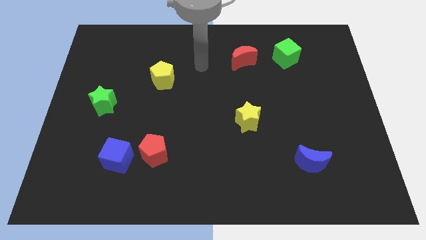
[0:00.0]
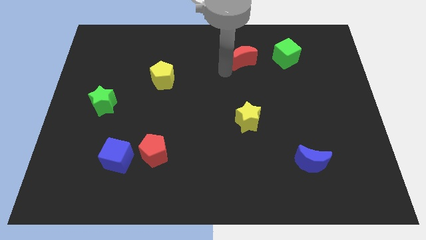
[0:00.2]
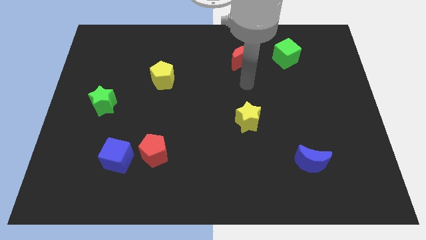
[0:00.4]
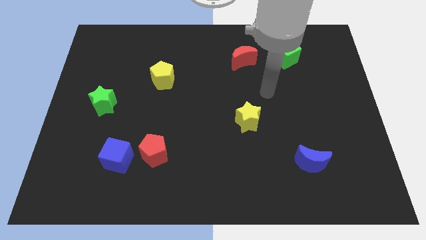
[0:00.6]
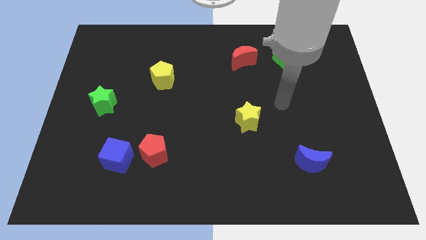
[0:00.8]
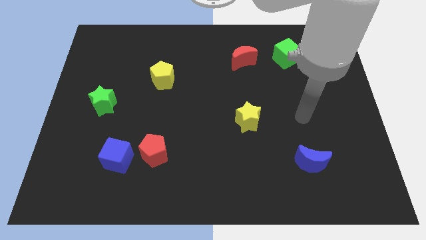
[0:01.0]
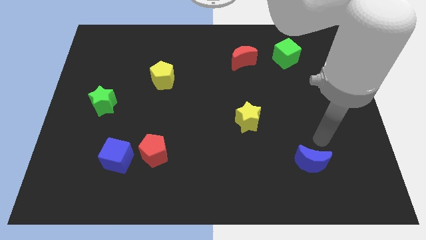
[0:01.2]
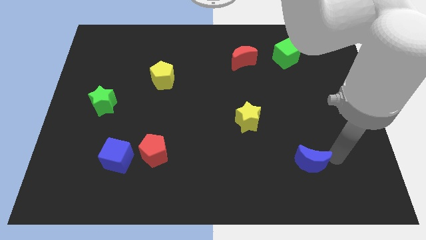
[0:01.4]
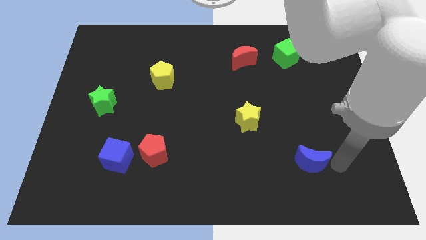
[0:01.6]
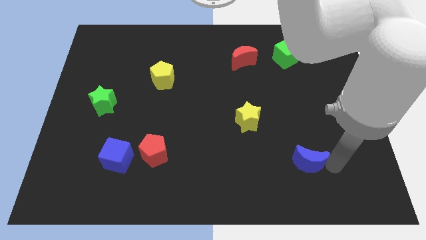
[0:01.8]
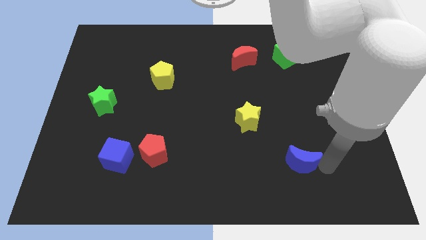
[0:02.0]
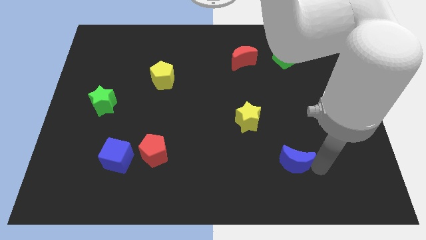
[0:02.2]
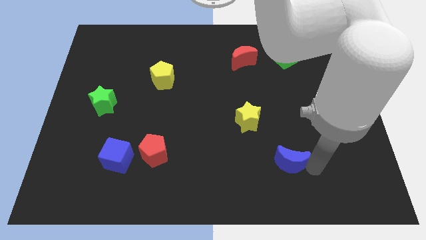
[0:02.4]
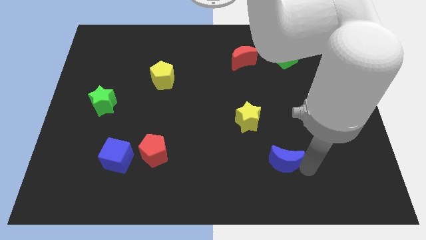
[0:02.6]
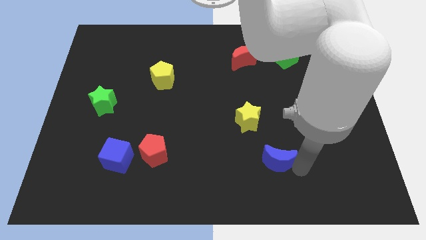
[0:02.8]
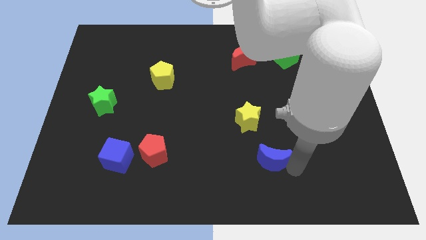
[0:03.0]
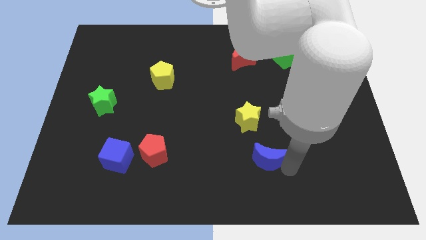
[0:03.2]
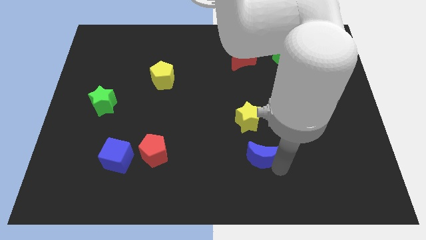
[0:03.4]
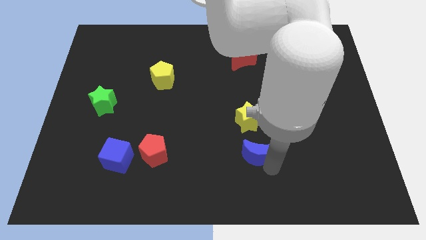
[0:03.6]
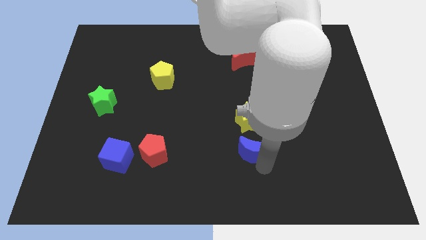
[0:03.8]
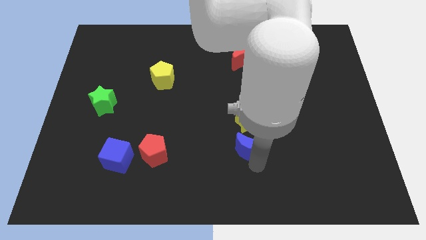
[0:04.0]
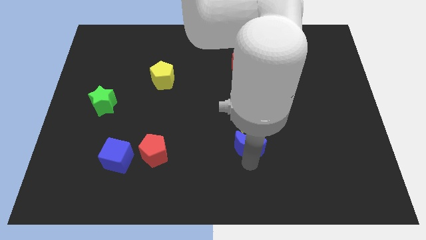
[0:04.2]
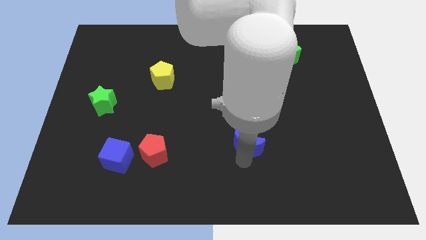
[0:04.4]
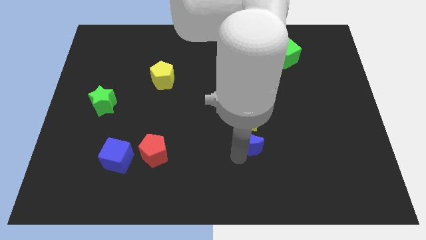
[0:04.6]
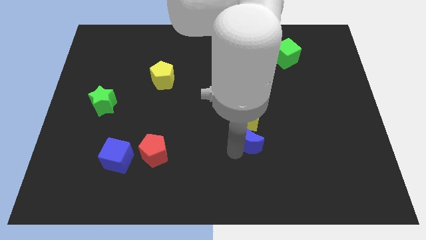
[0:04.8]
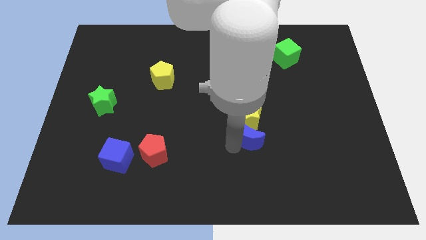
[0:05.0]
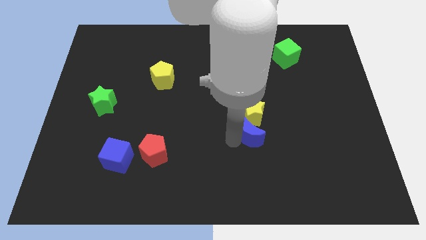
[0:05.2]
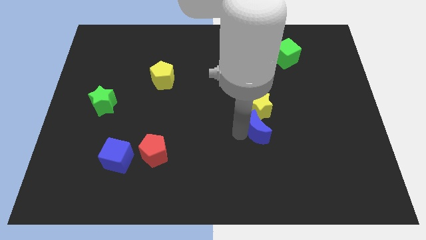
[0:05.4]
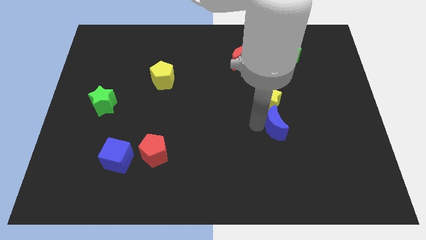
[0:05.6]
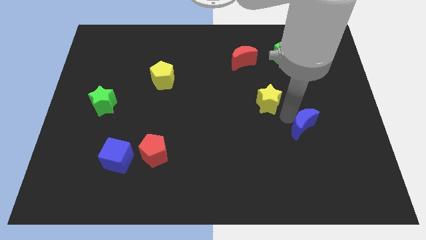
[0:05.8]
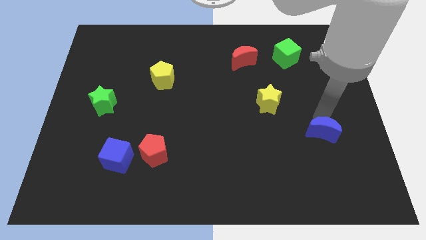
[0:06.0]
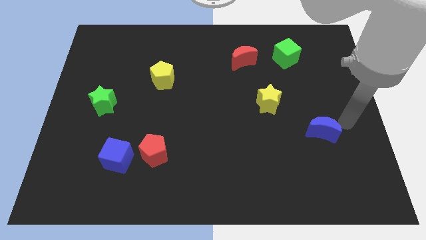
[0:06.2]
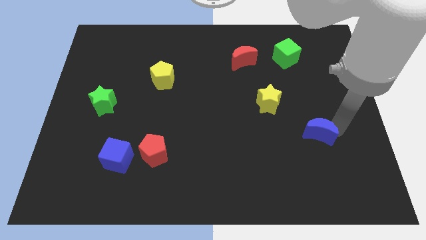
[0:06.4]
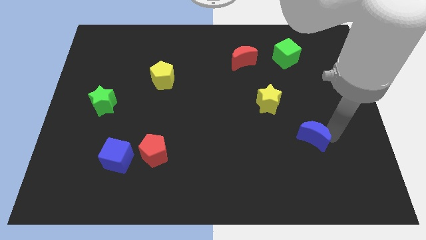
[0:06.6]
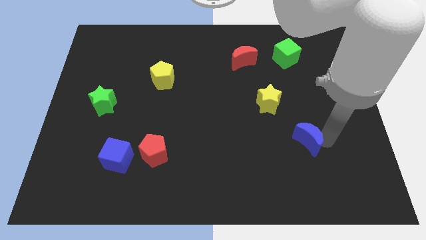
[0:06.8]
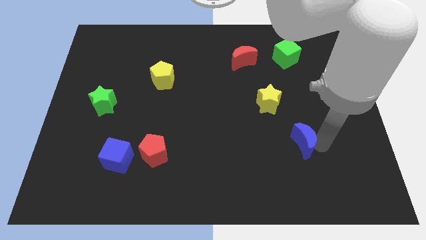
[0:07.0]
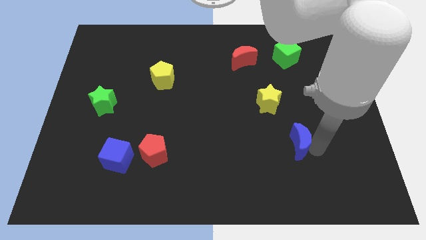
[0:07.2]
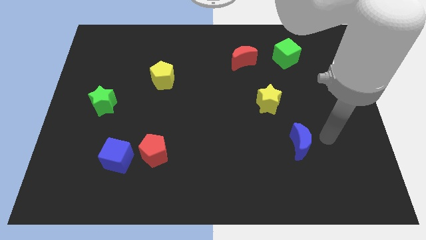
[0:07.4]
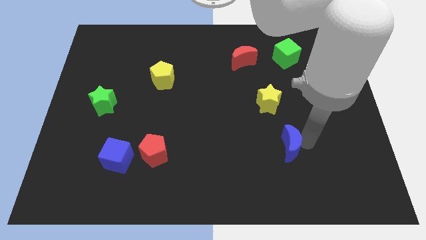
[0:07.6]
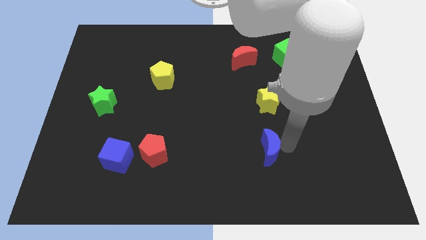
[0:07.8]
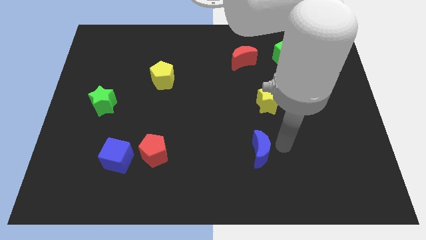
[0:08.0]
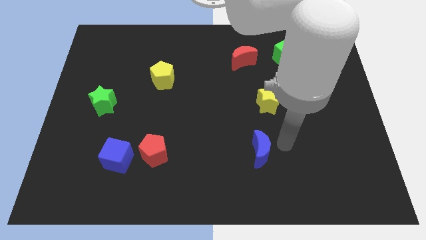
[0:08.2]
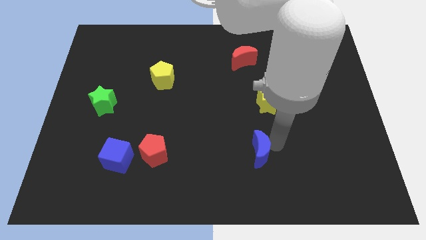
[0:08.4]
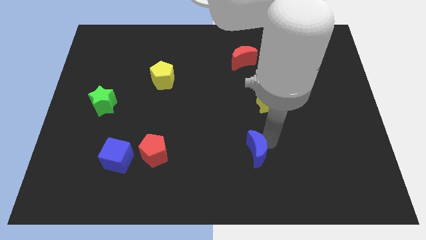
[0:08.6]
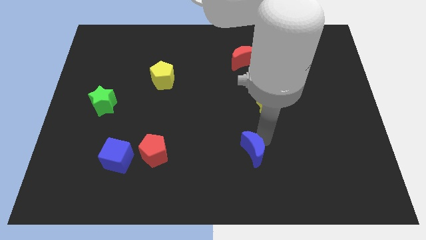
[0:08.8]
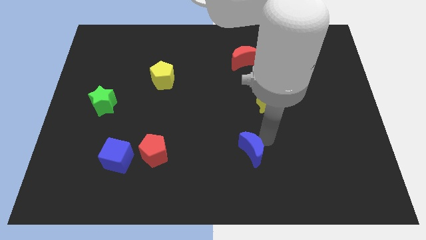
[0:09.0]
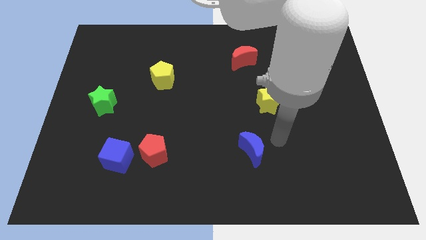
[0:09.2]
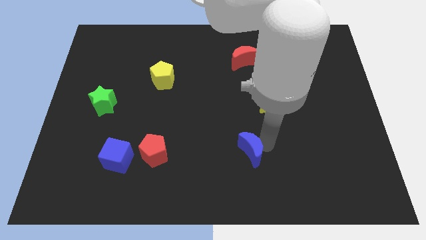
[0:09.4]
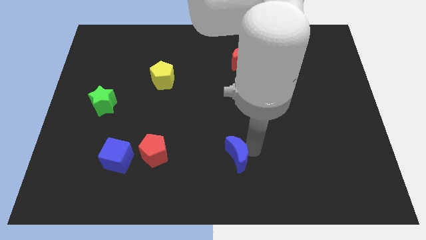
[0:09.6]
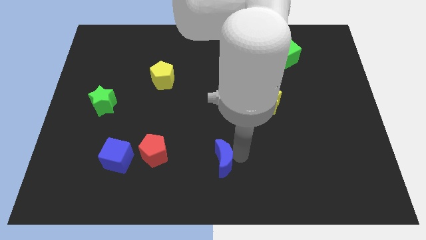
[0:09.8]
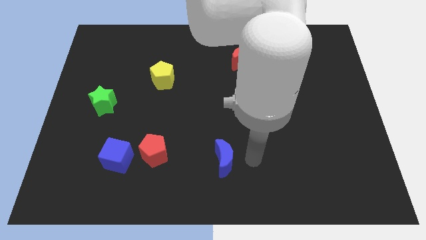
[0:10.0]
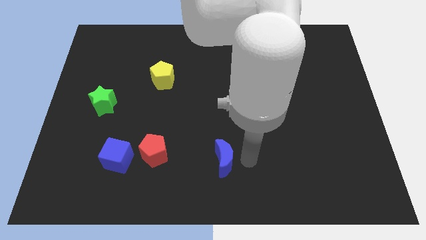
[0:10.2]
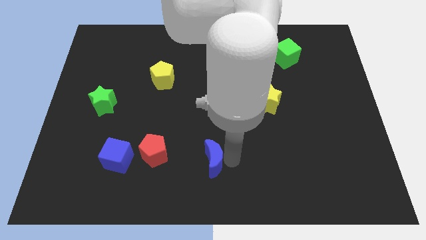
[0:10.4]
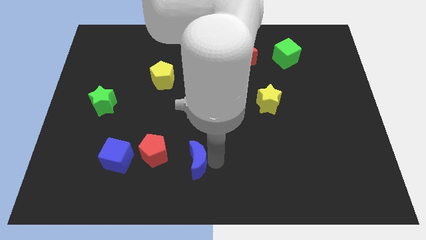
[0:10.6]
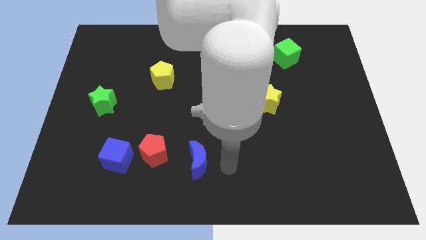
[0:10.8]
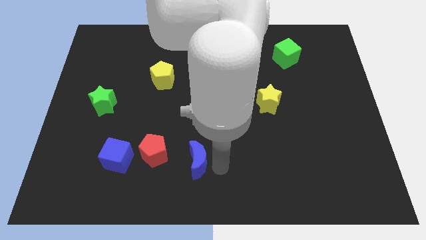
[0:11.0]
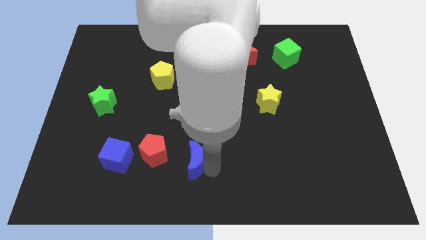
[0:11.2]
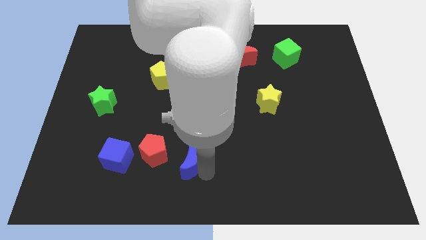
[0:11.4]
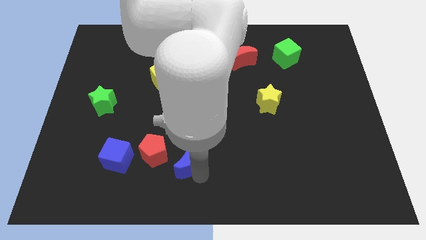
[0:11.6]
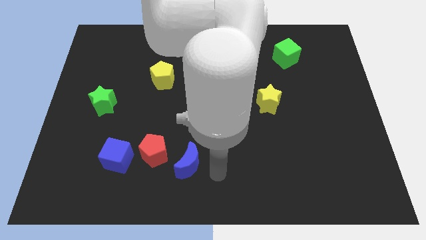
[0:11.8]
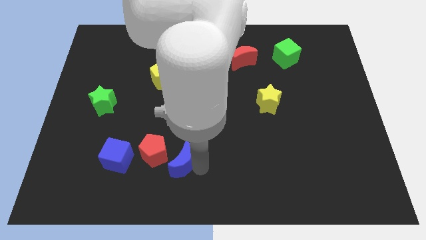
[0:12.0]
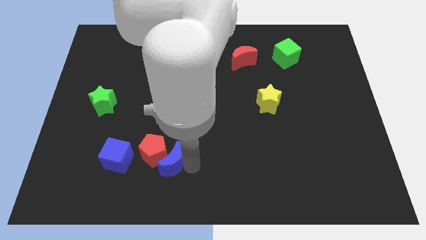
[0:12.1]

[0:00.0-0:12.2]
move the blue moon next to the red pentagon

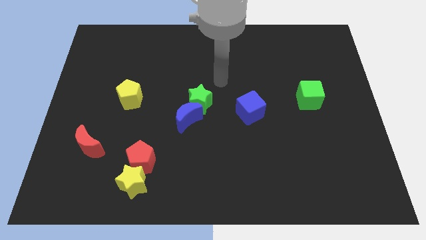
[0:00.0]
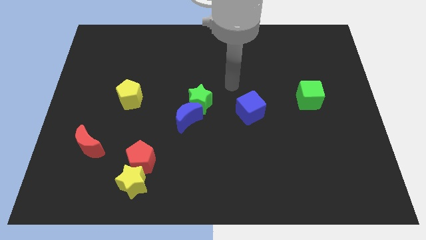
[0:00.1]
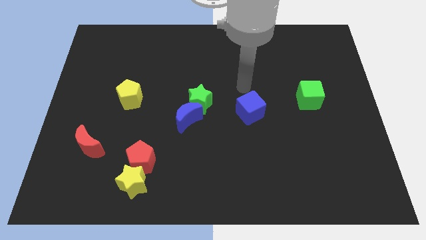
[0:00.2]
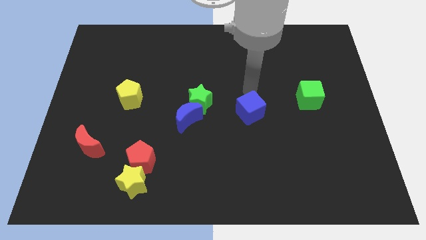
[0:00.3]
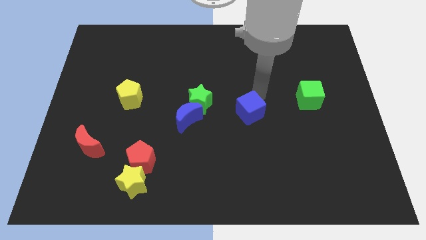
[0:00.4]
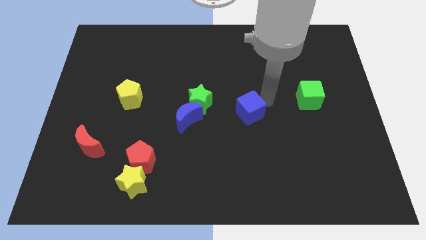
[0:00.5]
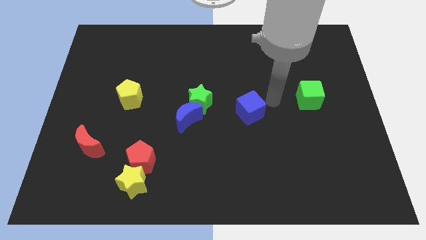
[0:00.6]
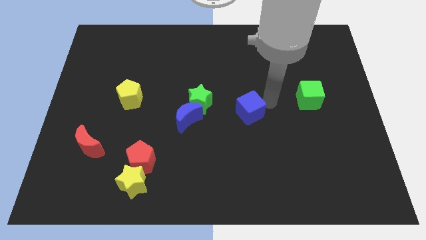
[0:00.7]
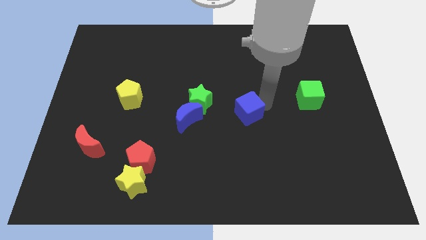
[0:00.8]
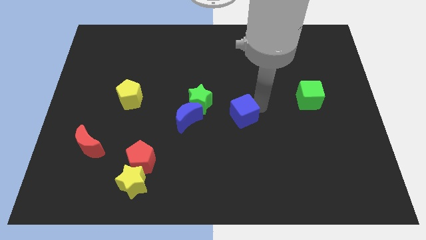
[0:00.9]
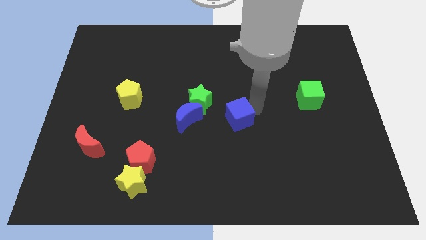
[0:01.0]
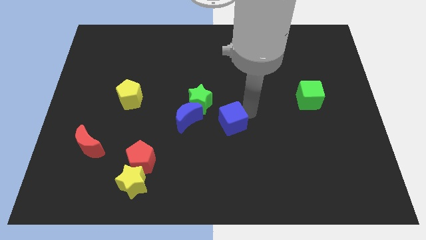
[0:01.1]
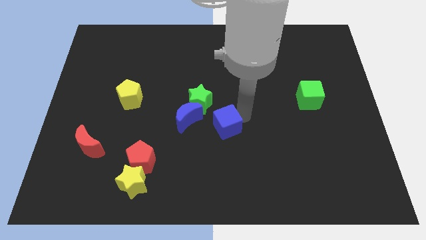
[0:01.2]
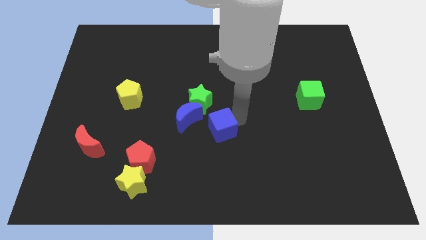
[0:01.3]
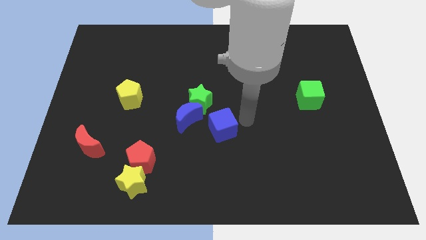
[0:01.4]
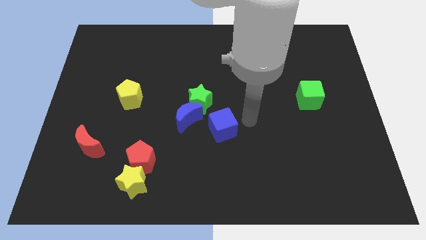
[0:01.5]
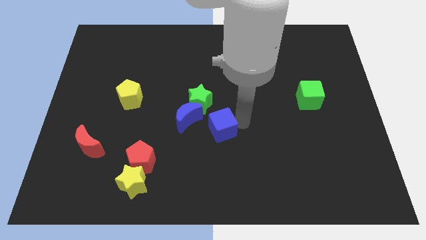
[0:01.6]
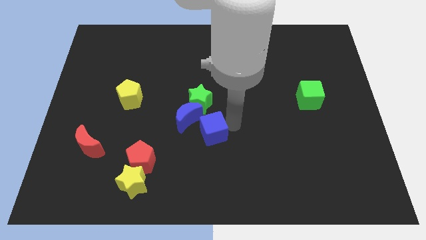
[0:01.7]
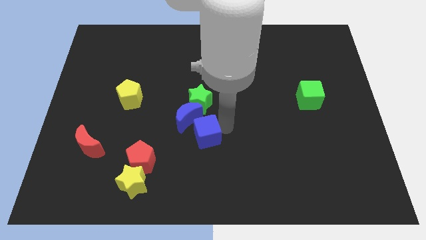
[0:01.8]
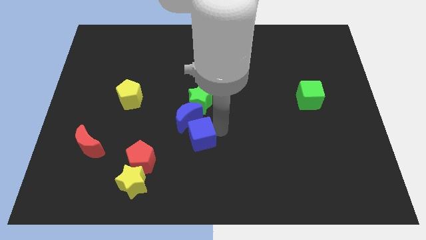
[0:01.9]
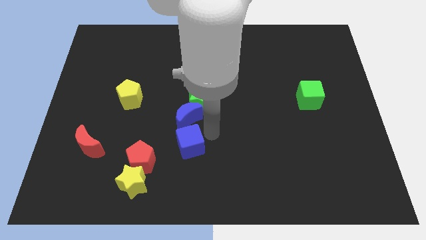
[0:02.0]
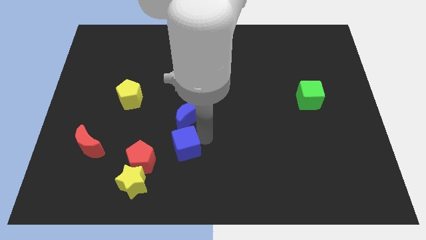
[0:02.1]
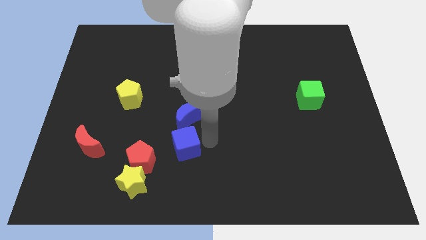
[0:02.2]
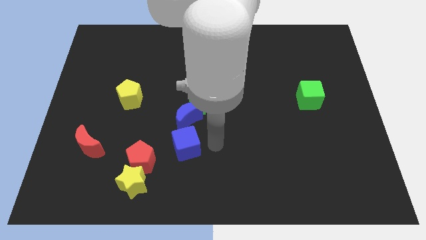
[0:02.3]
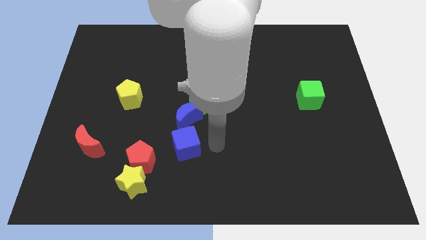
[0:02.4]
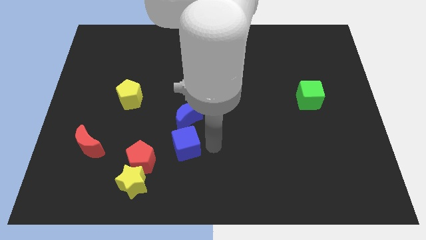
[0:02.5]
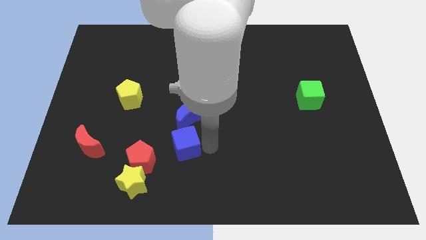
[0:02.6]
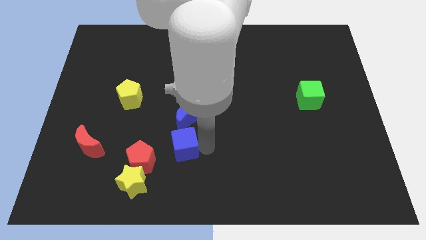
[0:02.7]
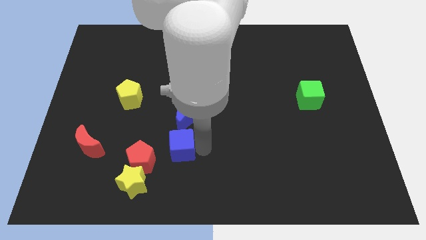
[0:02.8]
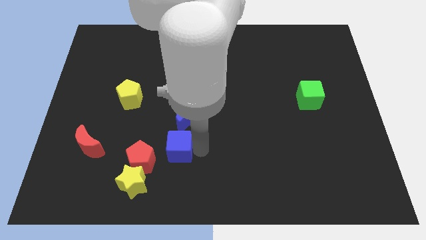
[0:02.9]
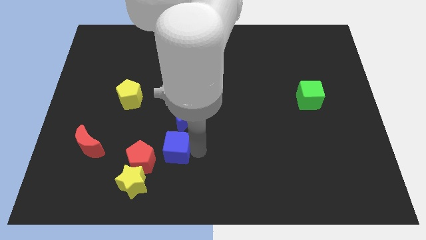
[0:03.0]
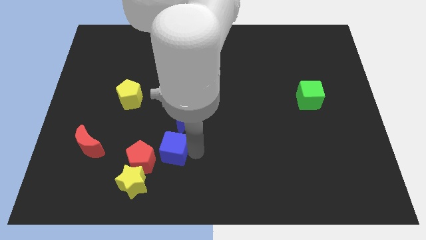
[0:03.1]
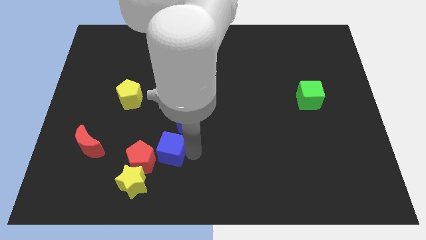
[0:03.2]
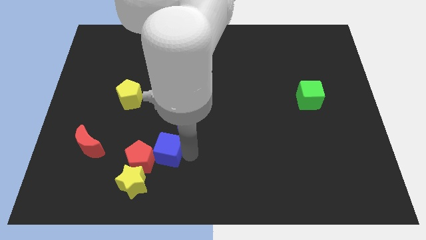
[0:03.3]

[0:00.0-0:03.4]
move the blue cube next to the red pentagon
